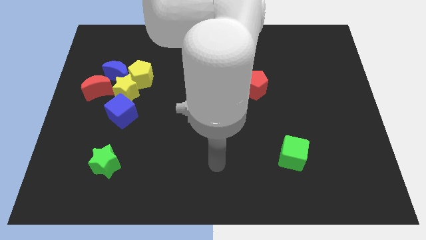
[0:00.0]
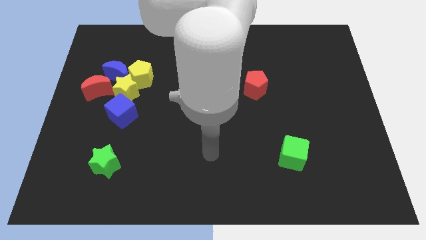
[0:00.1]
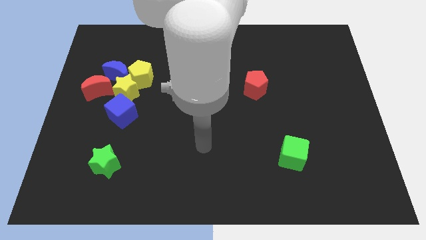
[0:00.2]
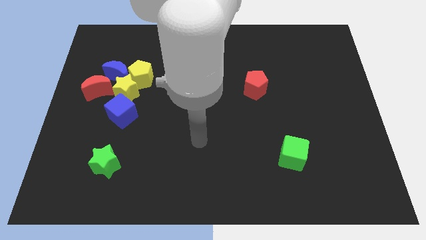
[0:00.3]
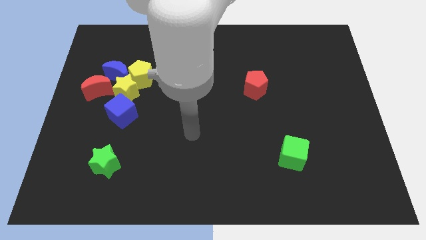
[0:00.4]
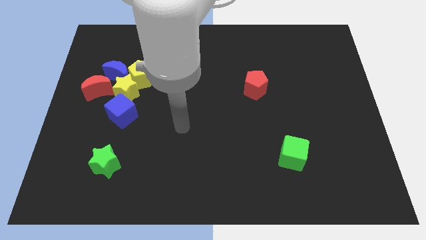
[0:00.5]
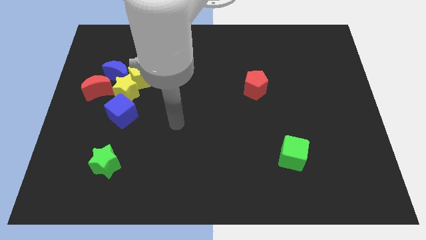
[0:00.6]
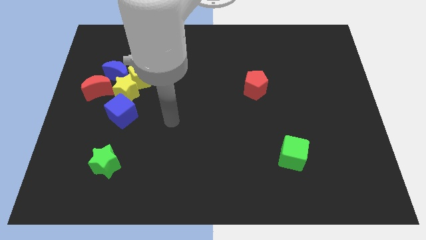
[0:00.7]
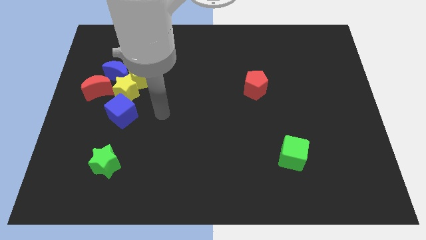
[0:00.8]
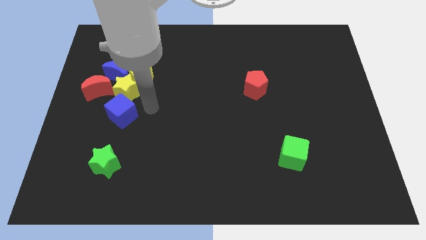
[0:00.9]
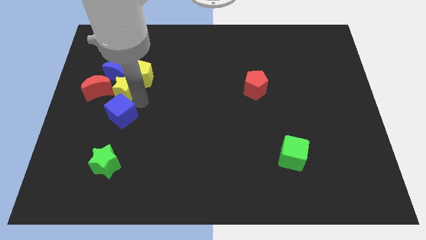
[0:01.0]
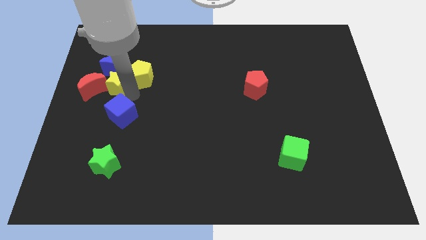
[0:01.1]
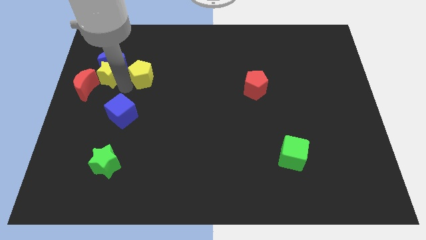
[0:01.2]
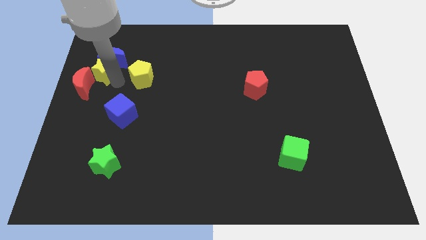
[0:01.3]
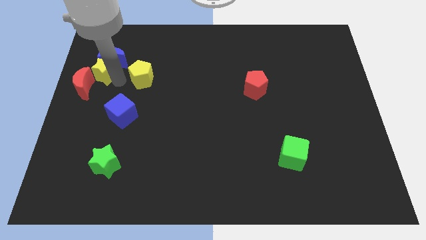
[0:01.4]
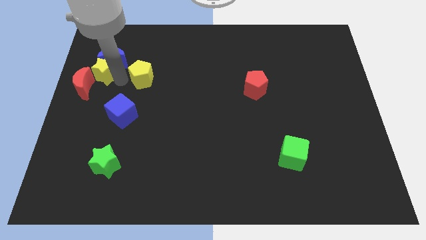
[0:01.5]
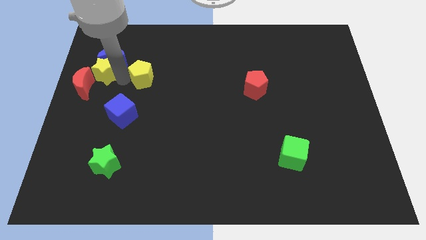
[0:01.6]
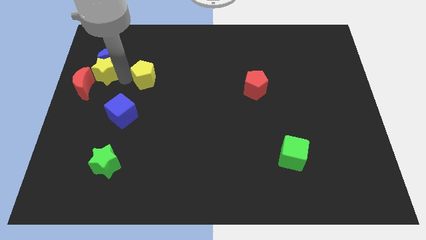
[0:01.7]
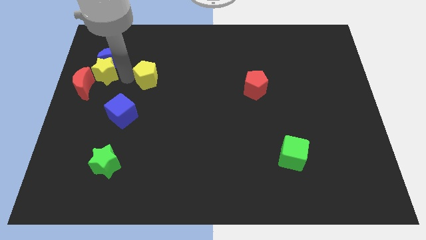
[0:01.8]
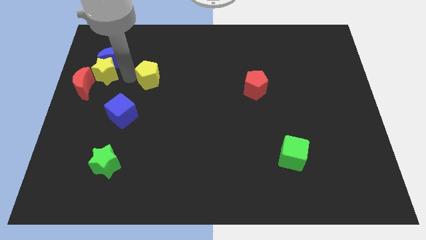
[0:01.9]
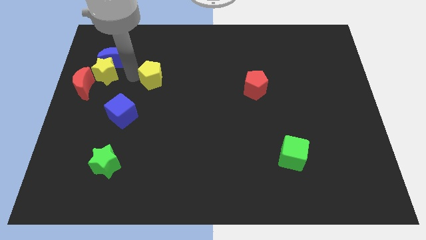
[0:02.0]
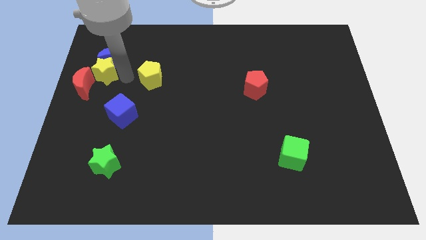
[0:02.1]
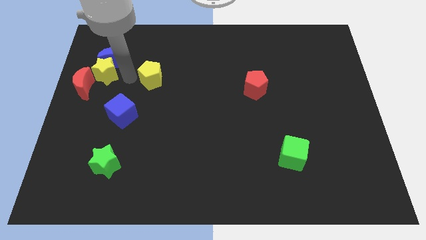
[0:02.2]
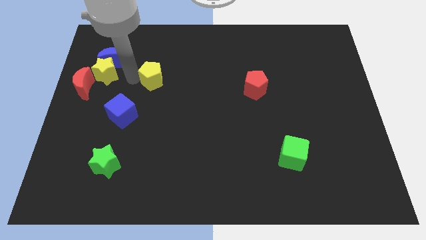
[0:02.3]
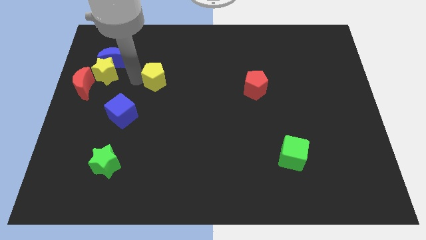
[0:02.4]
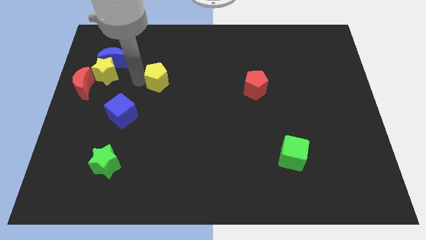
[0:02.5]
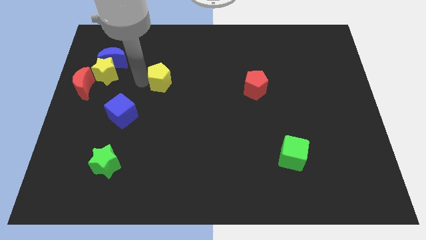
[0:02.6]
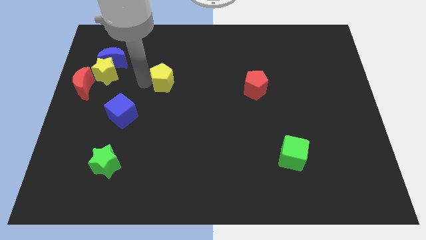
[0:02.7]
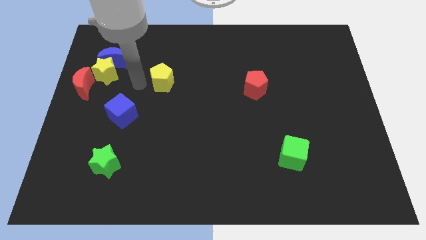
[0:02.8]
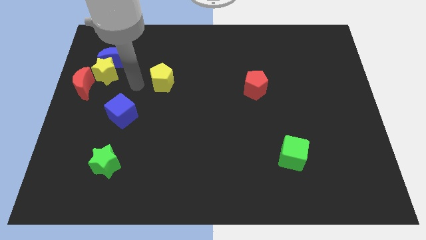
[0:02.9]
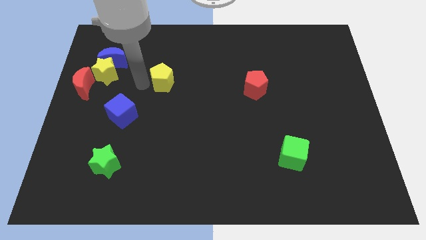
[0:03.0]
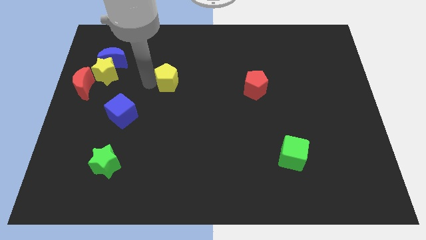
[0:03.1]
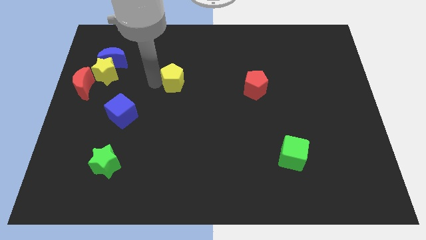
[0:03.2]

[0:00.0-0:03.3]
slightly push the yellow pentagon to the right

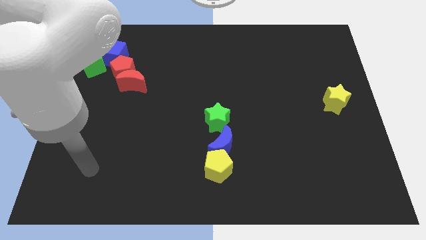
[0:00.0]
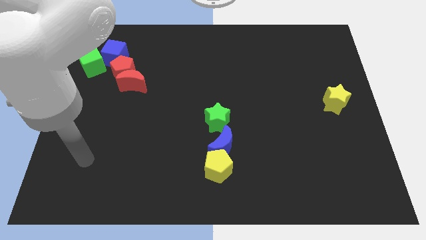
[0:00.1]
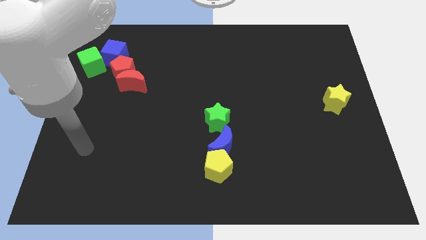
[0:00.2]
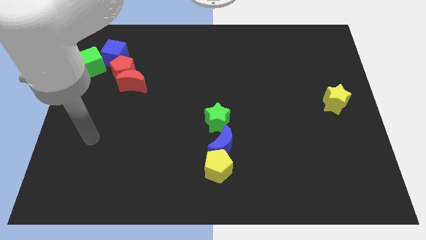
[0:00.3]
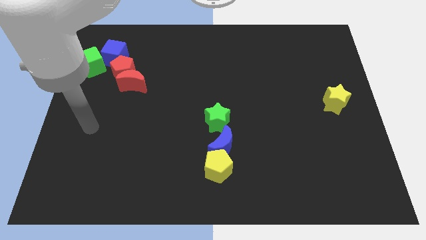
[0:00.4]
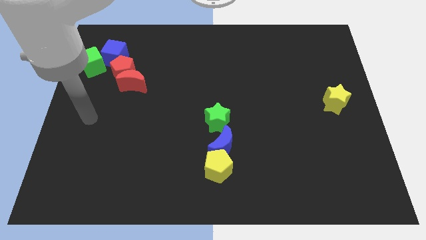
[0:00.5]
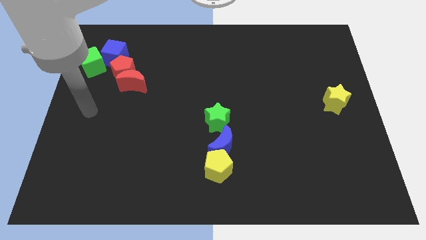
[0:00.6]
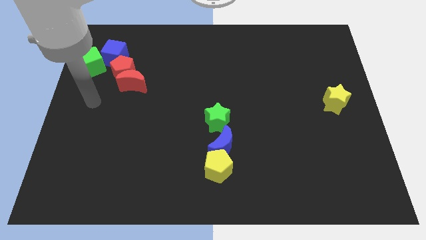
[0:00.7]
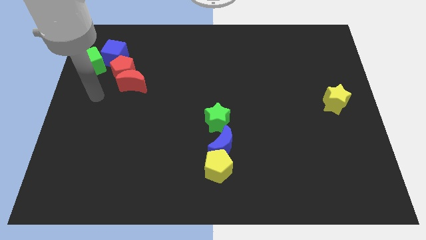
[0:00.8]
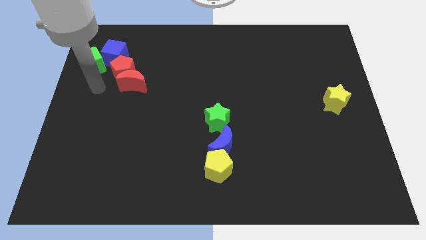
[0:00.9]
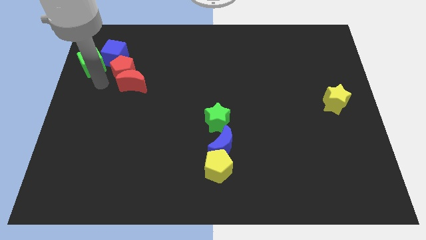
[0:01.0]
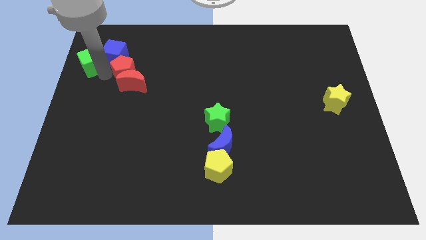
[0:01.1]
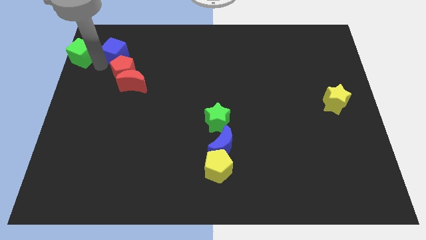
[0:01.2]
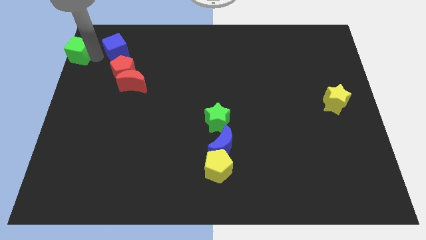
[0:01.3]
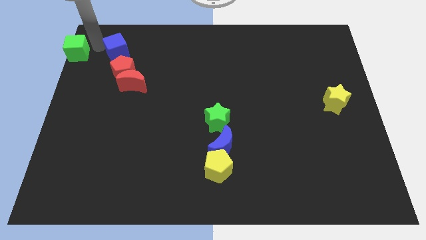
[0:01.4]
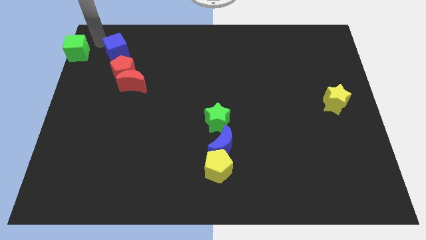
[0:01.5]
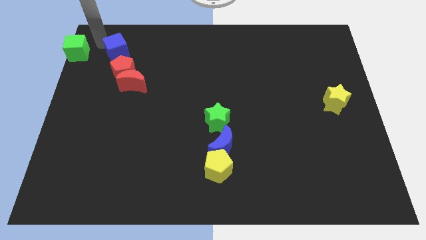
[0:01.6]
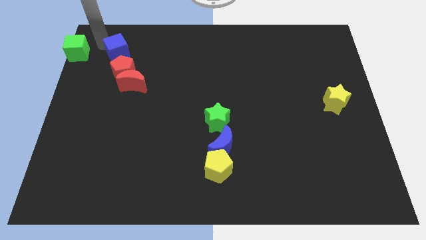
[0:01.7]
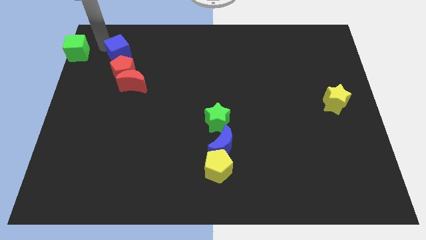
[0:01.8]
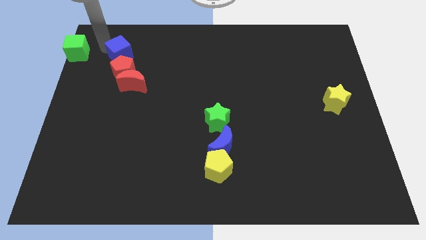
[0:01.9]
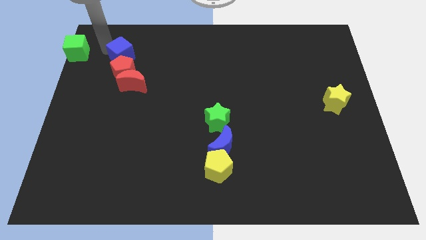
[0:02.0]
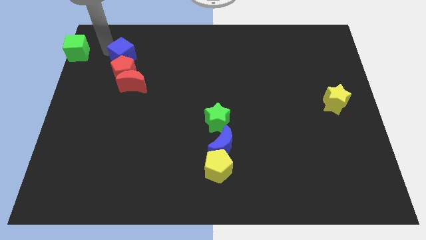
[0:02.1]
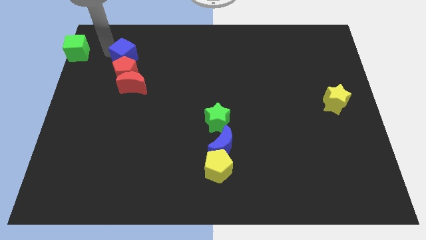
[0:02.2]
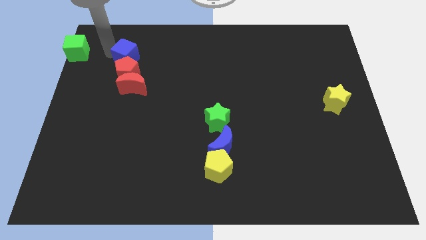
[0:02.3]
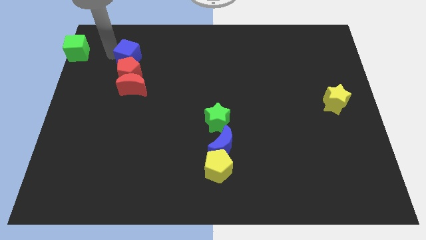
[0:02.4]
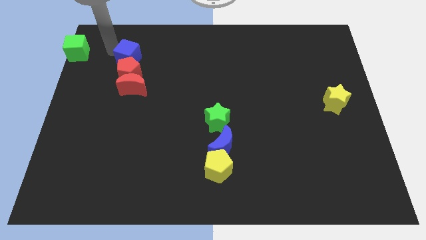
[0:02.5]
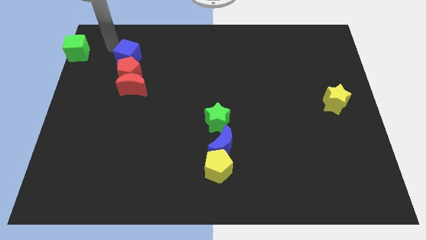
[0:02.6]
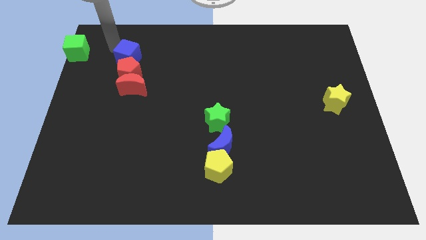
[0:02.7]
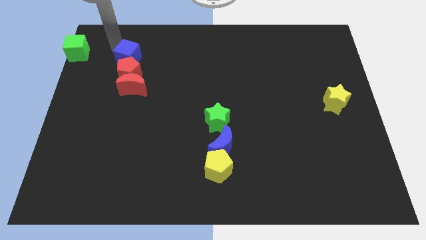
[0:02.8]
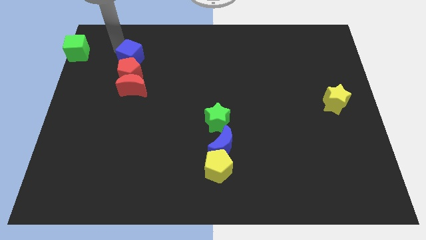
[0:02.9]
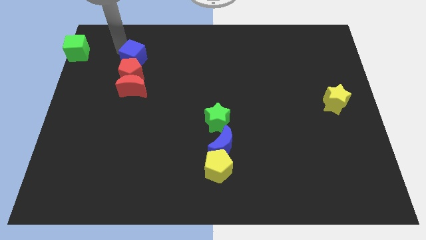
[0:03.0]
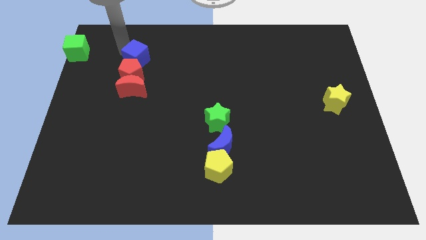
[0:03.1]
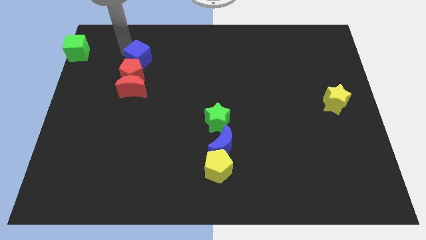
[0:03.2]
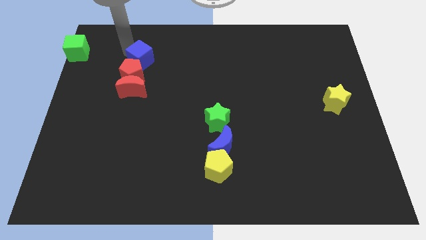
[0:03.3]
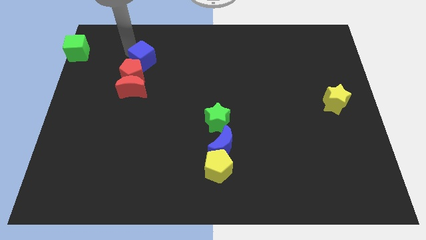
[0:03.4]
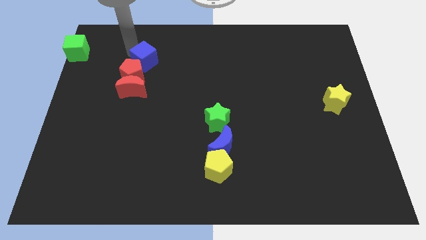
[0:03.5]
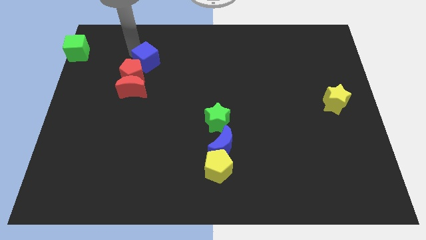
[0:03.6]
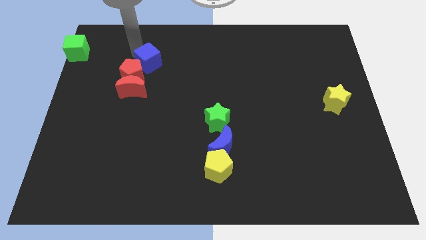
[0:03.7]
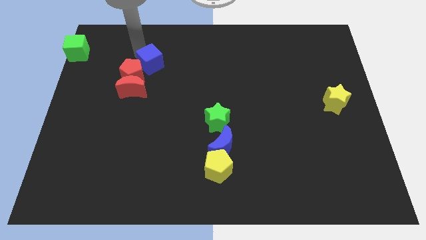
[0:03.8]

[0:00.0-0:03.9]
slightly move the blue cube diagonally downwards and to the right

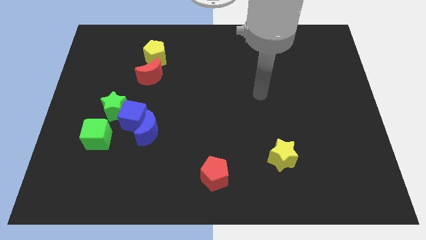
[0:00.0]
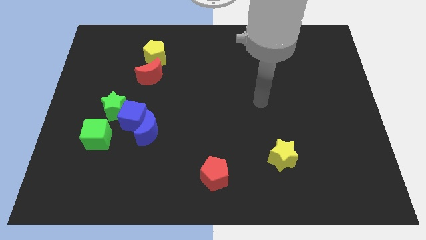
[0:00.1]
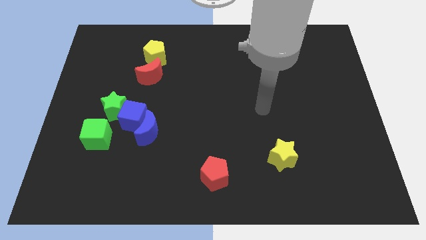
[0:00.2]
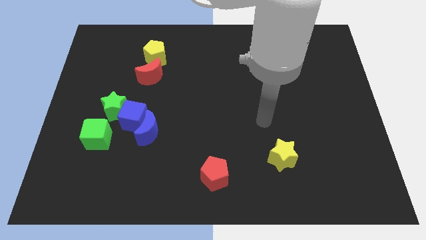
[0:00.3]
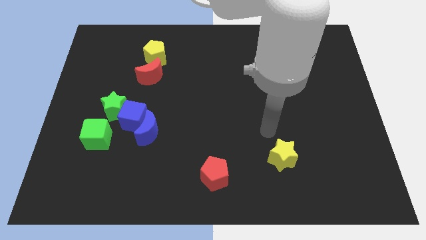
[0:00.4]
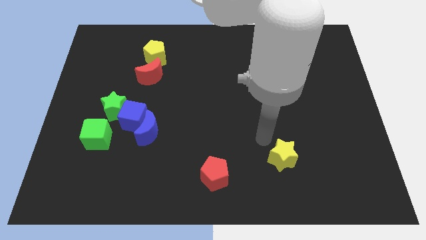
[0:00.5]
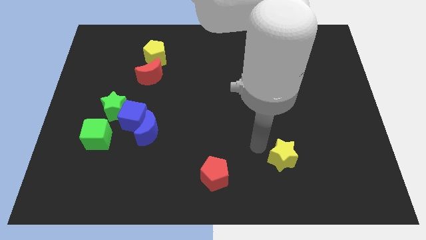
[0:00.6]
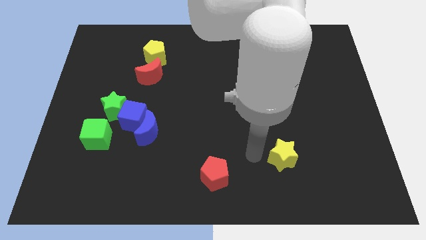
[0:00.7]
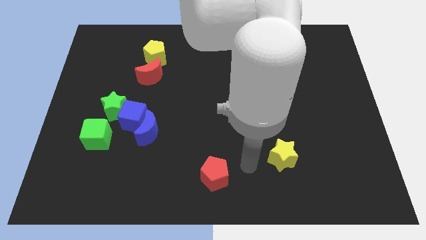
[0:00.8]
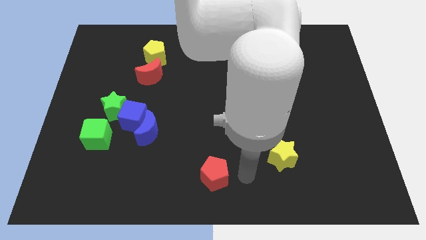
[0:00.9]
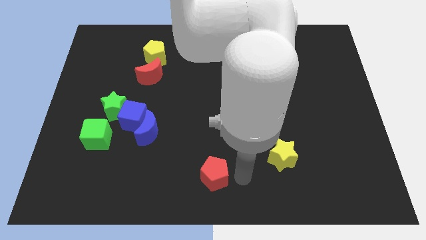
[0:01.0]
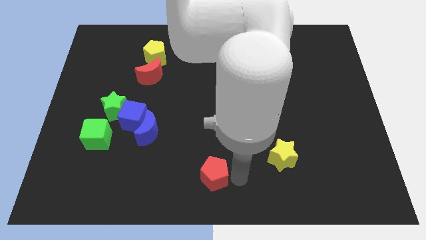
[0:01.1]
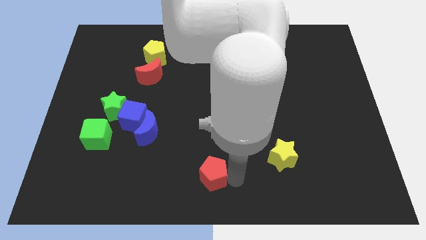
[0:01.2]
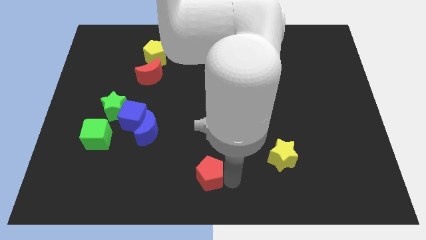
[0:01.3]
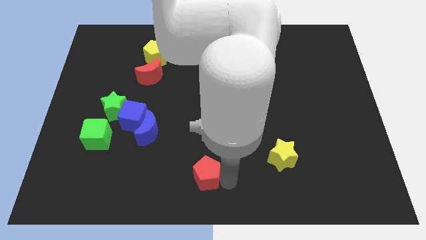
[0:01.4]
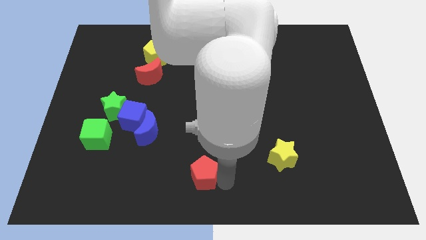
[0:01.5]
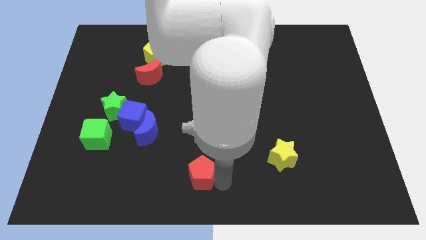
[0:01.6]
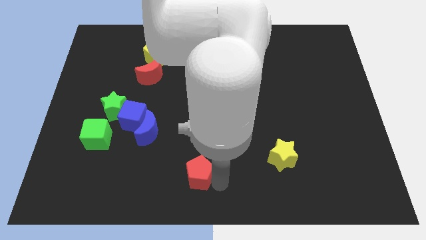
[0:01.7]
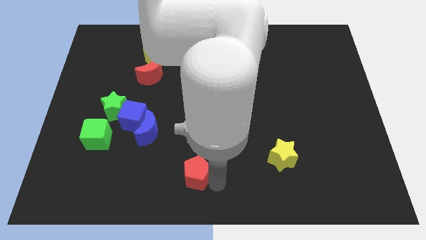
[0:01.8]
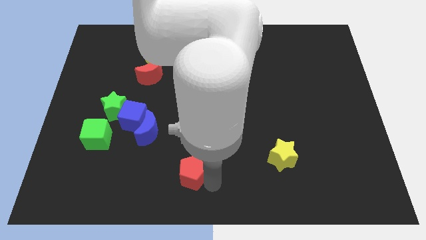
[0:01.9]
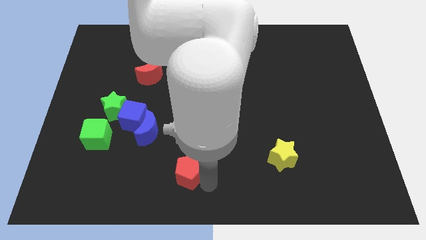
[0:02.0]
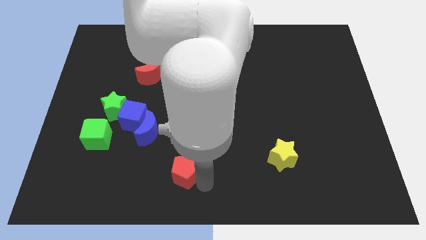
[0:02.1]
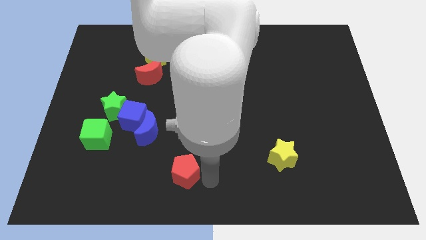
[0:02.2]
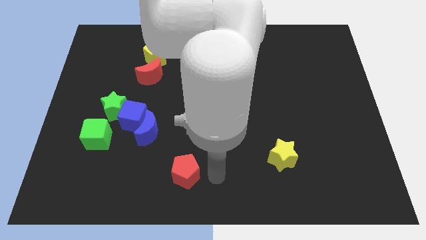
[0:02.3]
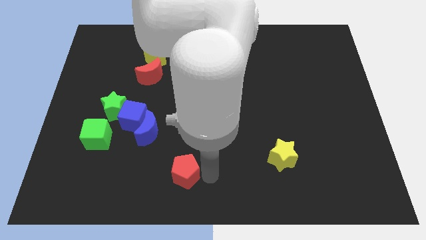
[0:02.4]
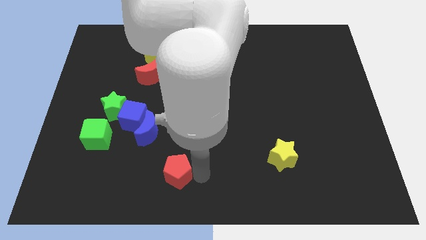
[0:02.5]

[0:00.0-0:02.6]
slightly slide the red pentagon to the left
